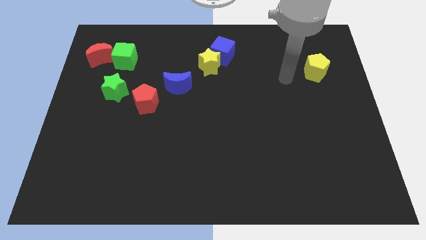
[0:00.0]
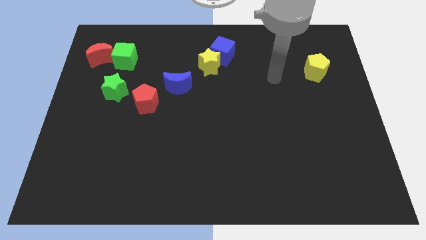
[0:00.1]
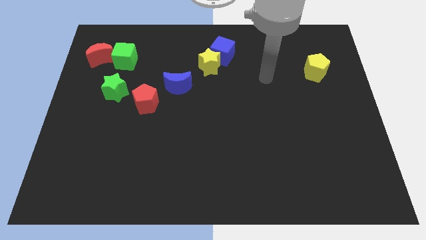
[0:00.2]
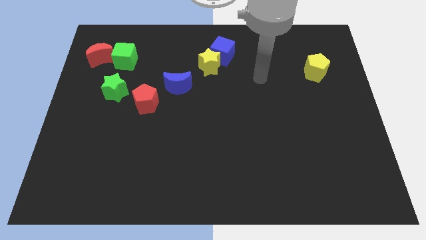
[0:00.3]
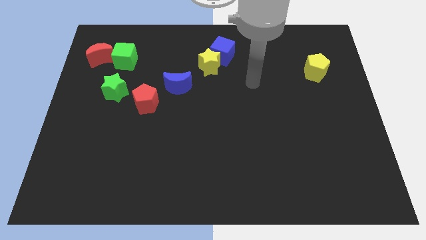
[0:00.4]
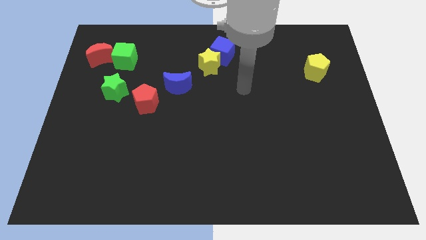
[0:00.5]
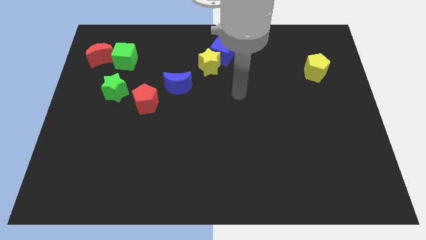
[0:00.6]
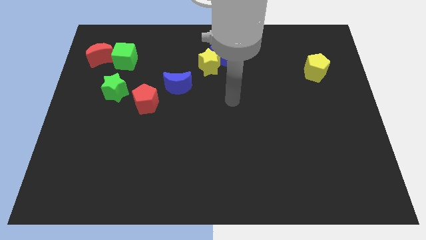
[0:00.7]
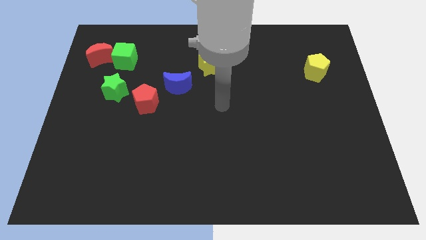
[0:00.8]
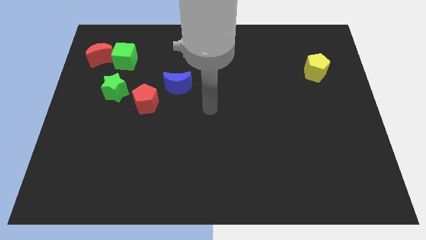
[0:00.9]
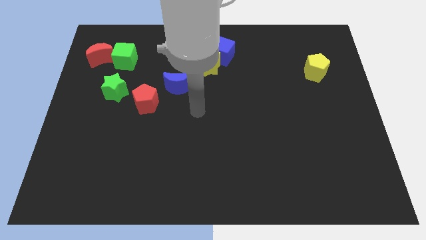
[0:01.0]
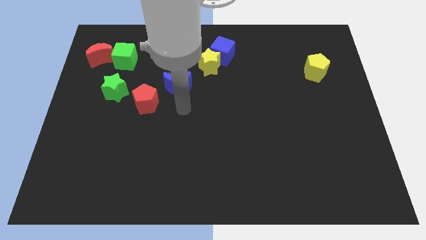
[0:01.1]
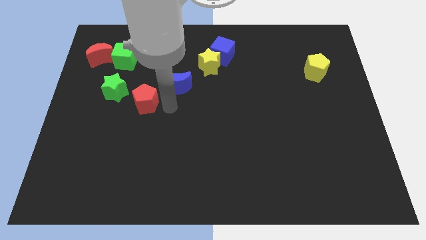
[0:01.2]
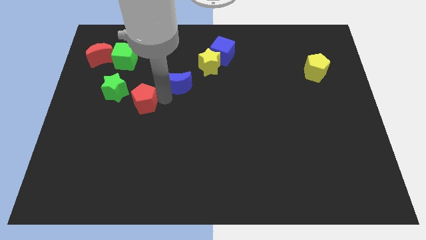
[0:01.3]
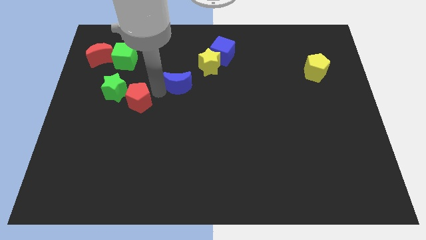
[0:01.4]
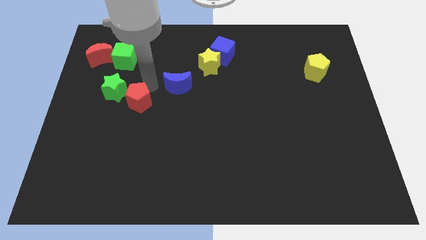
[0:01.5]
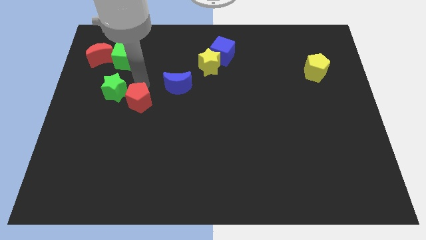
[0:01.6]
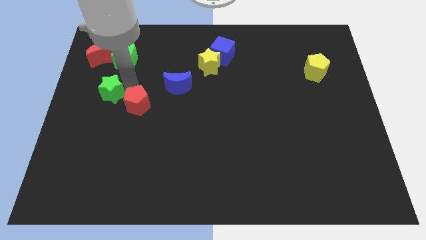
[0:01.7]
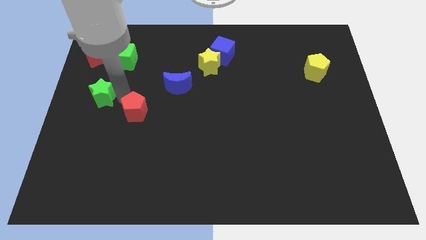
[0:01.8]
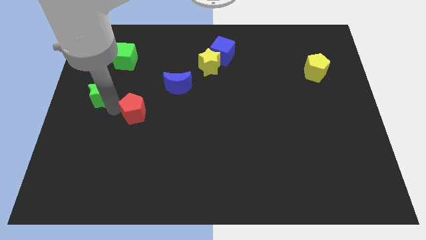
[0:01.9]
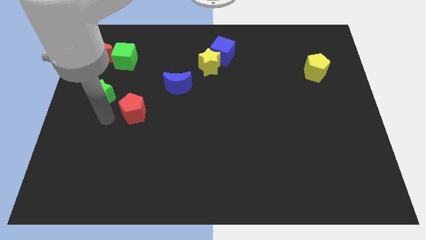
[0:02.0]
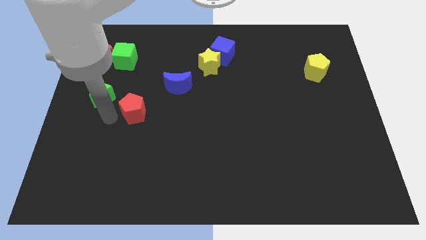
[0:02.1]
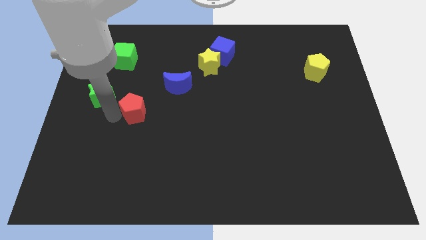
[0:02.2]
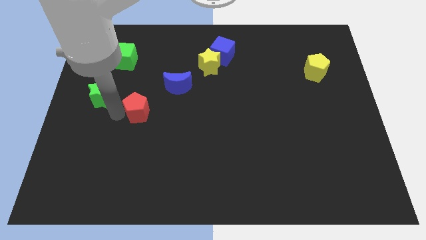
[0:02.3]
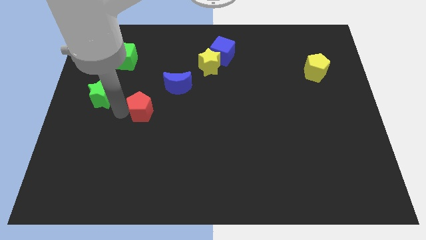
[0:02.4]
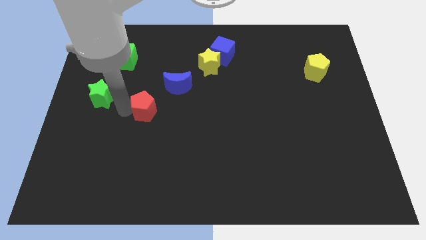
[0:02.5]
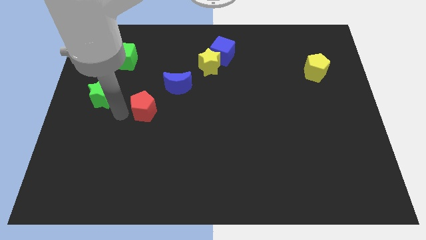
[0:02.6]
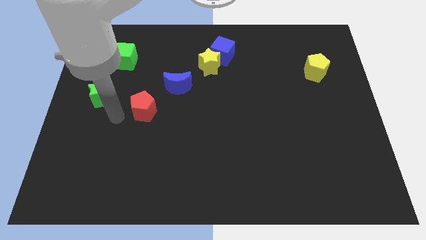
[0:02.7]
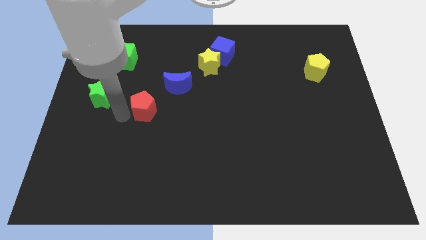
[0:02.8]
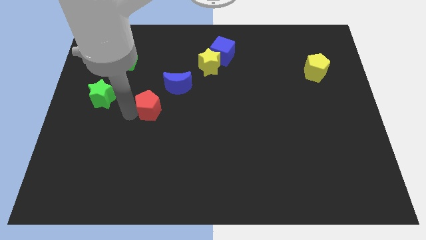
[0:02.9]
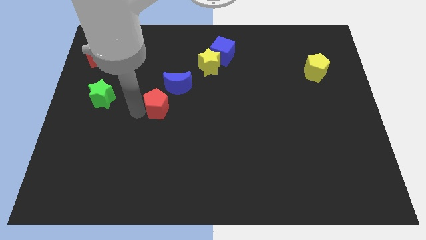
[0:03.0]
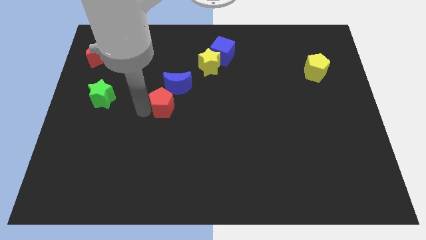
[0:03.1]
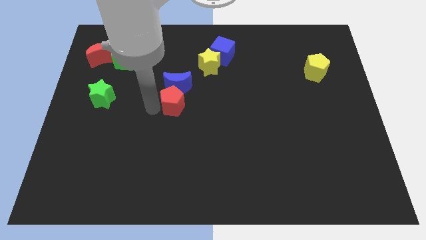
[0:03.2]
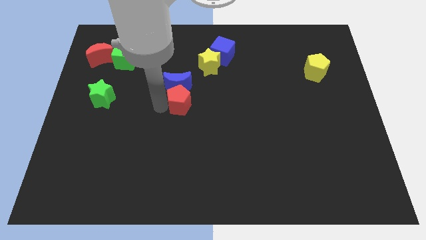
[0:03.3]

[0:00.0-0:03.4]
move the red pentagon a bit right

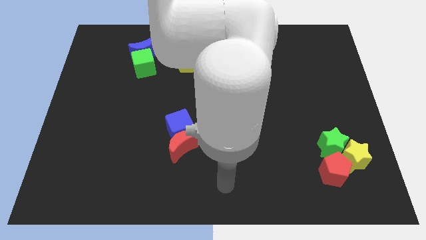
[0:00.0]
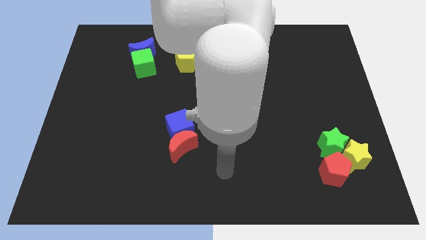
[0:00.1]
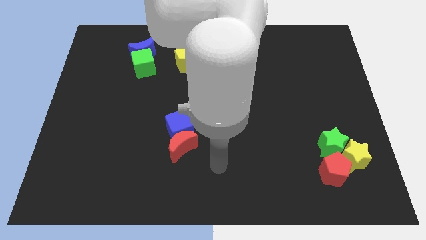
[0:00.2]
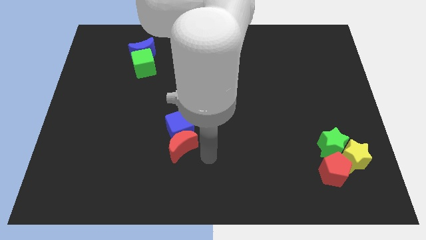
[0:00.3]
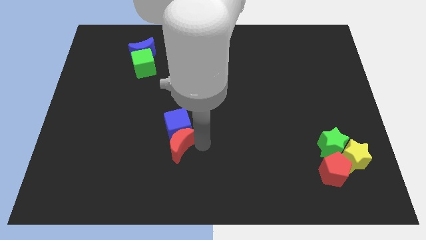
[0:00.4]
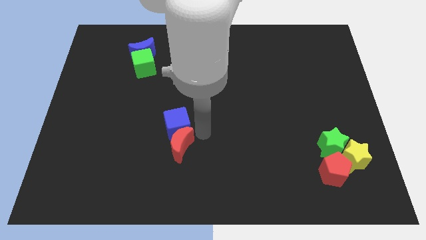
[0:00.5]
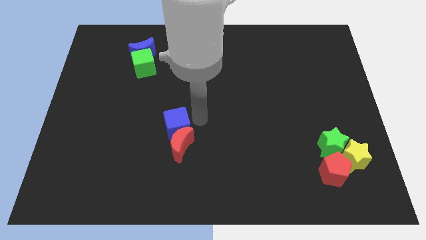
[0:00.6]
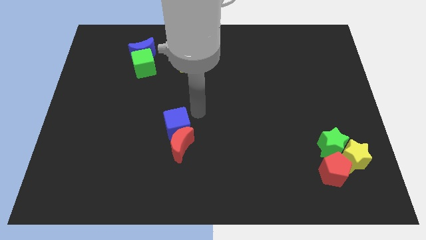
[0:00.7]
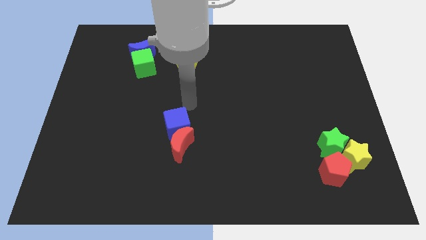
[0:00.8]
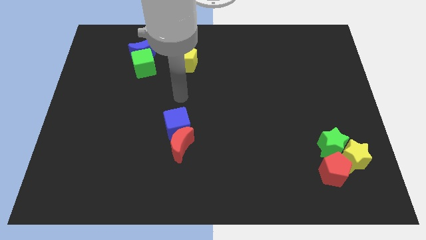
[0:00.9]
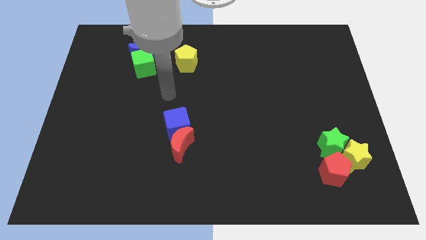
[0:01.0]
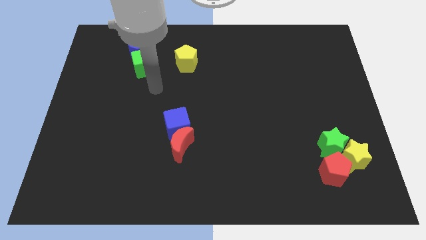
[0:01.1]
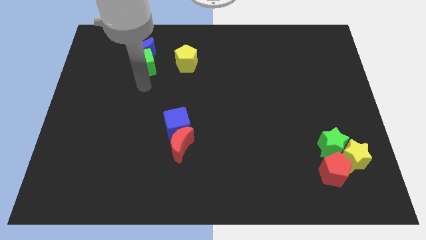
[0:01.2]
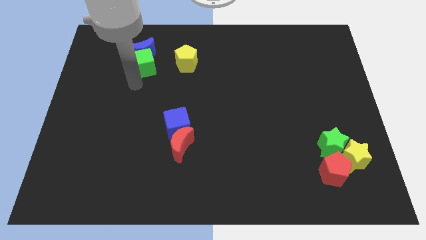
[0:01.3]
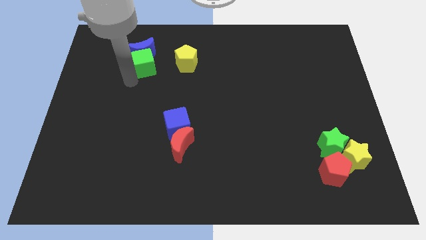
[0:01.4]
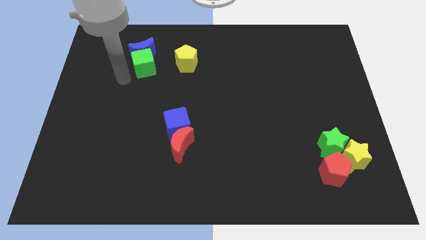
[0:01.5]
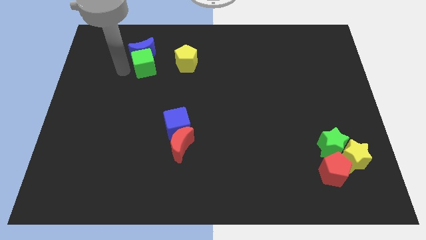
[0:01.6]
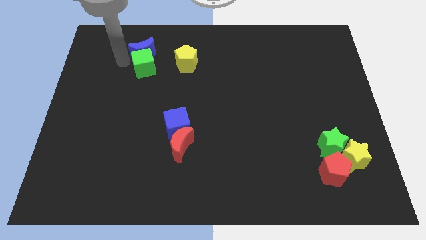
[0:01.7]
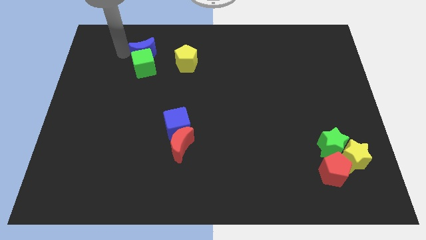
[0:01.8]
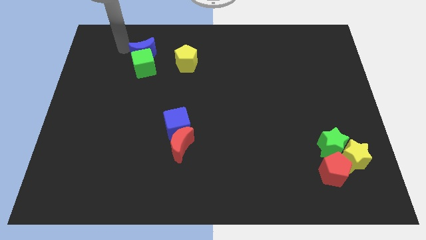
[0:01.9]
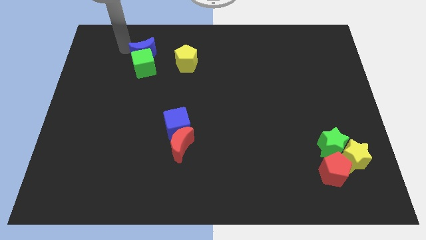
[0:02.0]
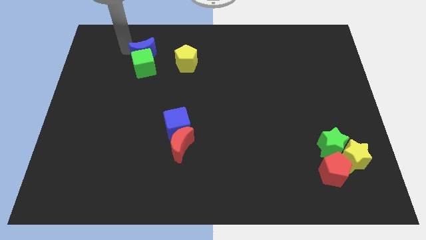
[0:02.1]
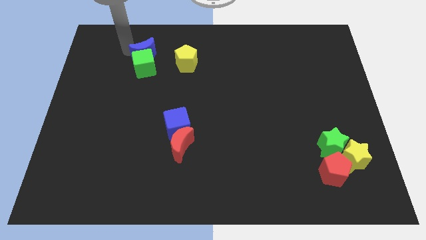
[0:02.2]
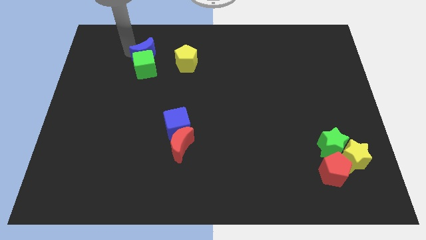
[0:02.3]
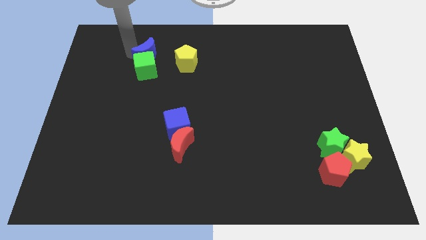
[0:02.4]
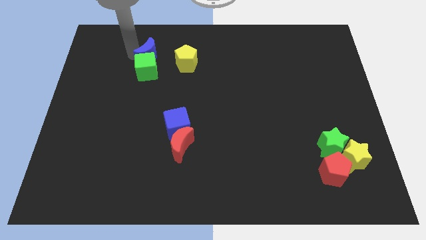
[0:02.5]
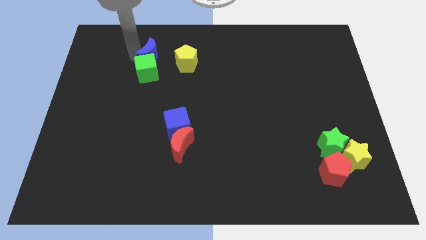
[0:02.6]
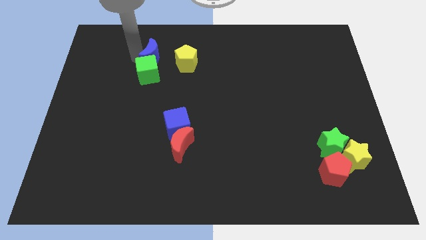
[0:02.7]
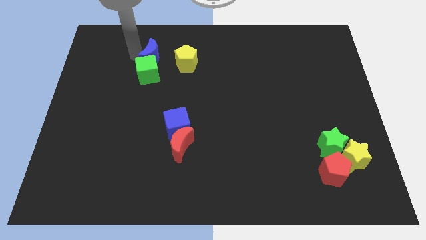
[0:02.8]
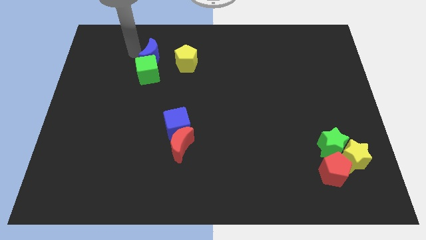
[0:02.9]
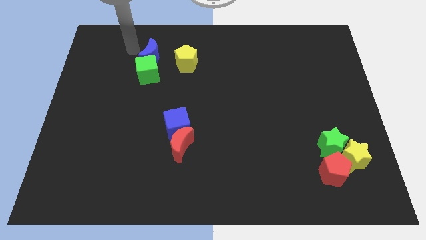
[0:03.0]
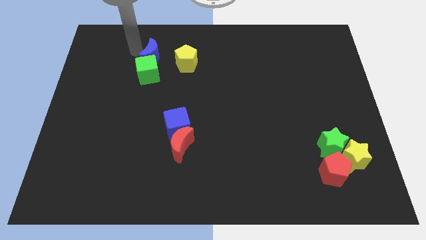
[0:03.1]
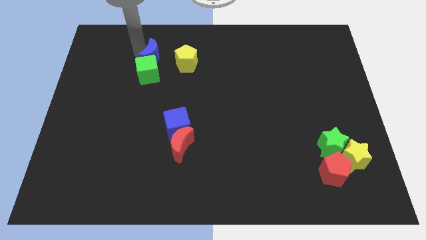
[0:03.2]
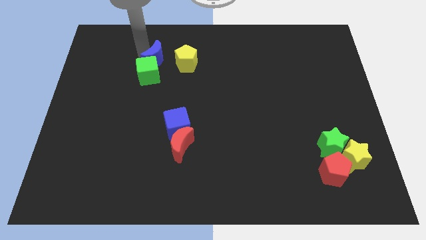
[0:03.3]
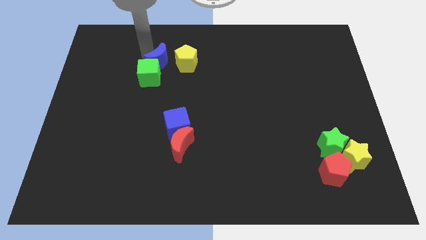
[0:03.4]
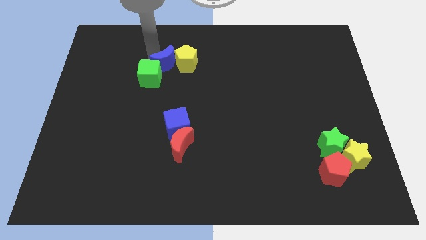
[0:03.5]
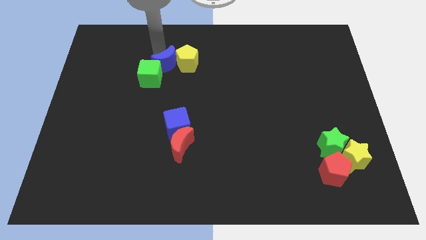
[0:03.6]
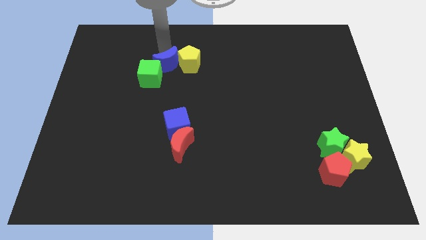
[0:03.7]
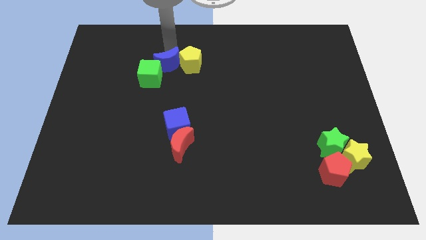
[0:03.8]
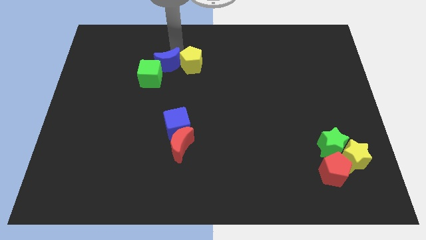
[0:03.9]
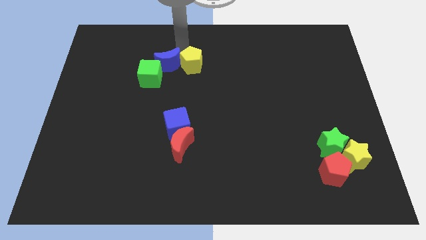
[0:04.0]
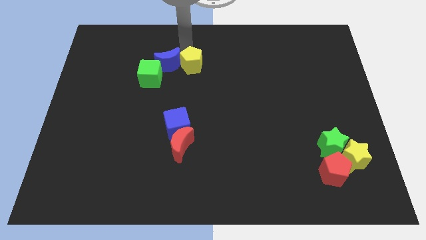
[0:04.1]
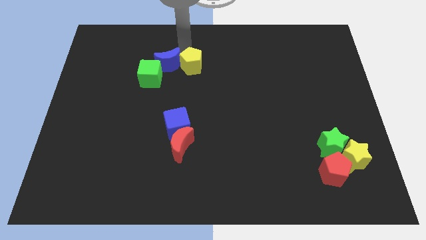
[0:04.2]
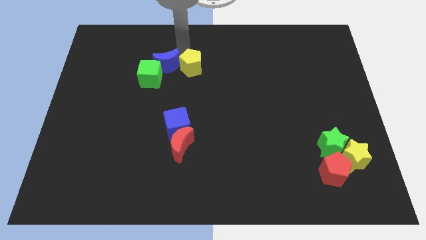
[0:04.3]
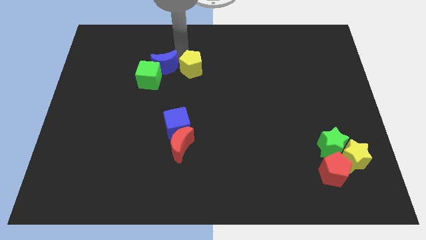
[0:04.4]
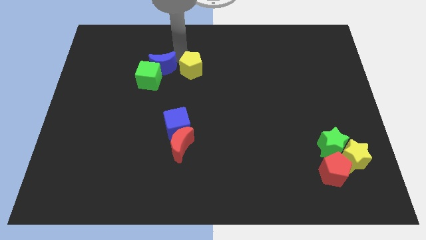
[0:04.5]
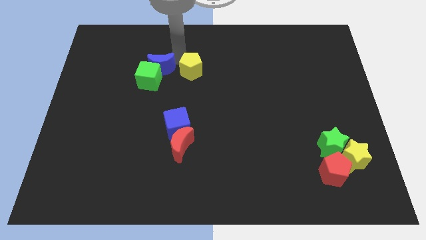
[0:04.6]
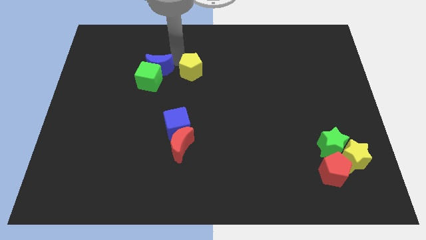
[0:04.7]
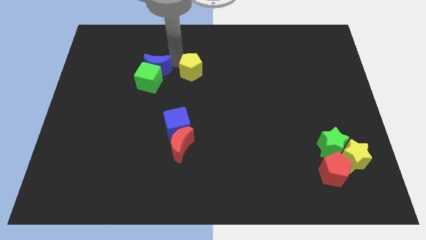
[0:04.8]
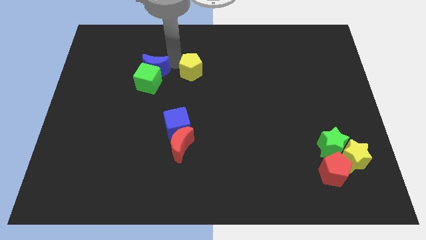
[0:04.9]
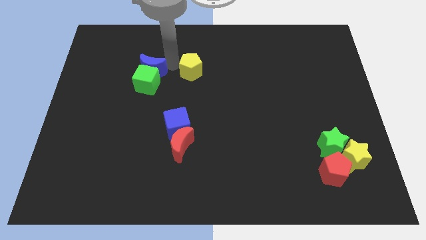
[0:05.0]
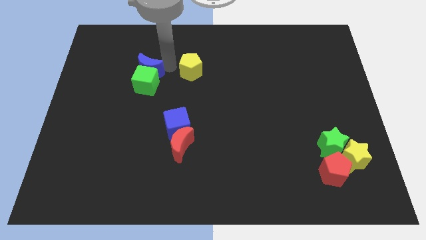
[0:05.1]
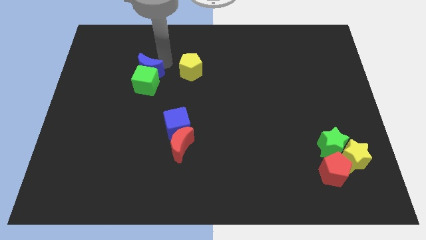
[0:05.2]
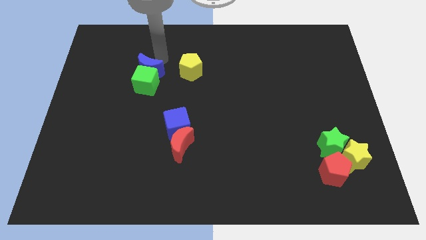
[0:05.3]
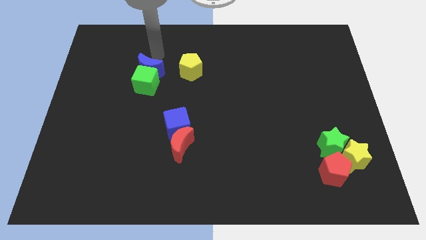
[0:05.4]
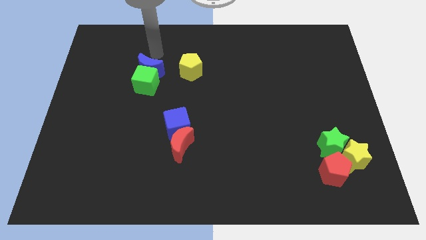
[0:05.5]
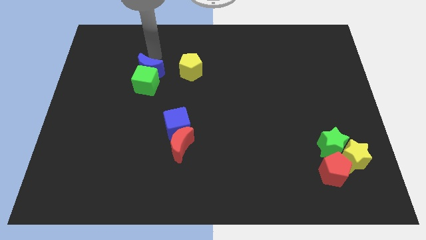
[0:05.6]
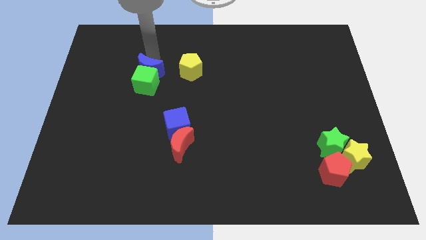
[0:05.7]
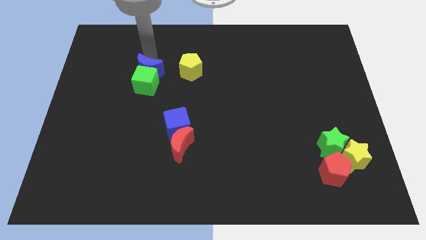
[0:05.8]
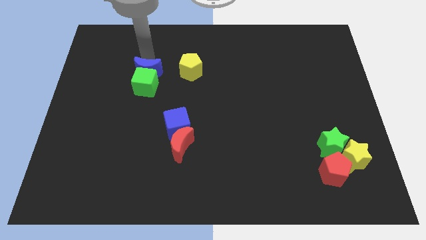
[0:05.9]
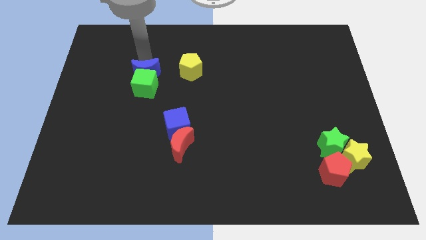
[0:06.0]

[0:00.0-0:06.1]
slightly slide the blue moon down
